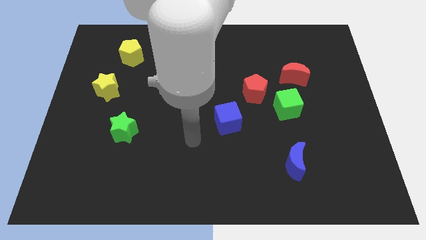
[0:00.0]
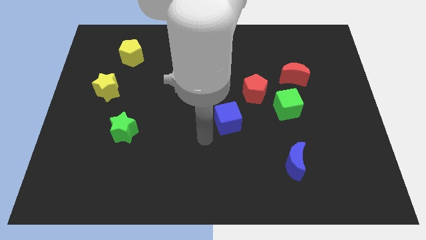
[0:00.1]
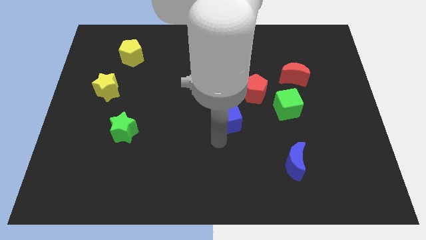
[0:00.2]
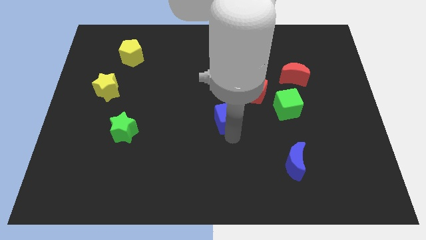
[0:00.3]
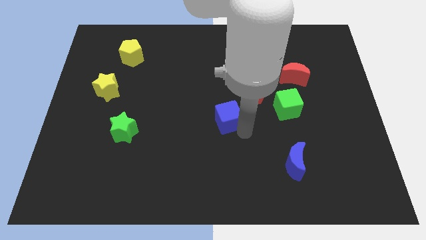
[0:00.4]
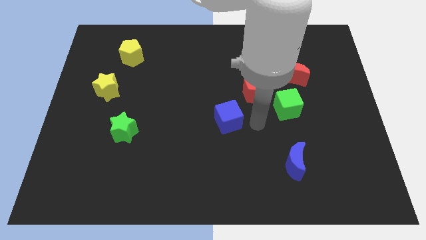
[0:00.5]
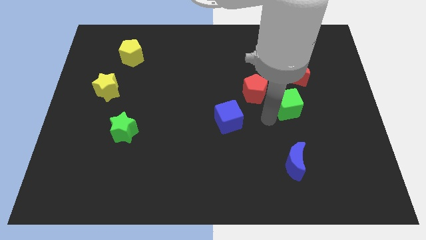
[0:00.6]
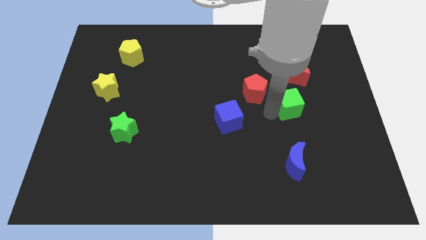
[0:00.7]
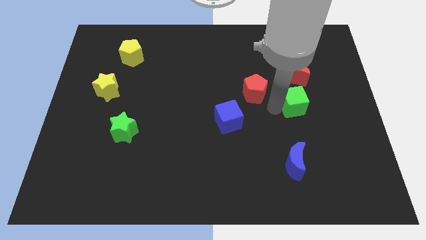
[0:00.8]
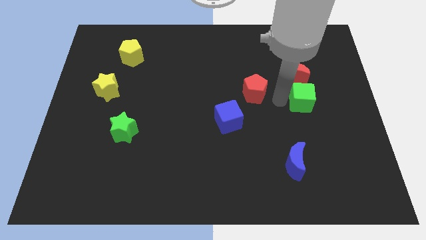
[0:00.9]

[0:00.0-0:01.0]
move the red pentagon away from the green cube

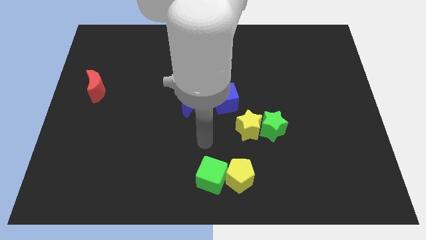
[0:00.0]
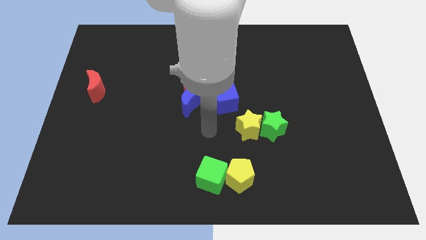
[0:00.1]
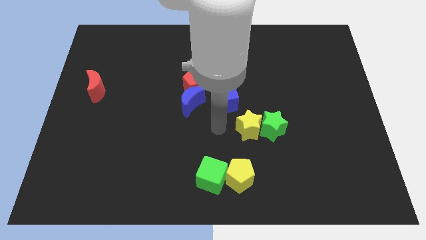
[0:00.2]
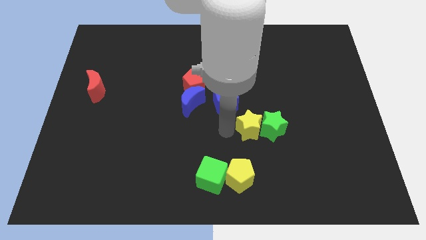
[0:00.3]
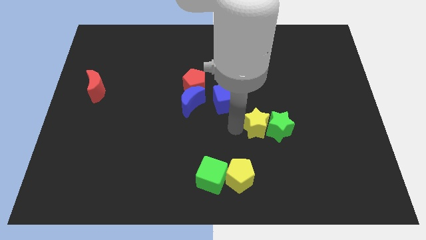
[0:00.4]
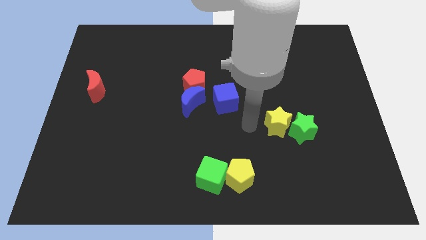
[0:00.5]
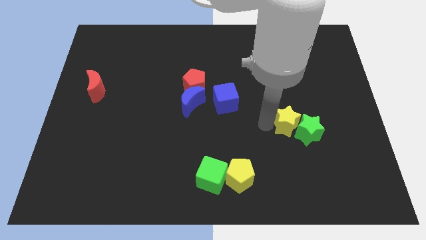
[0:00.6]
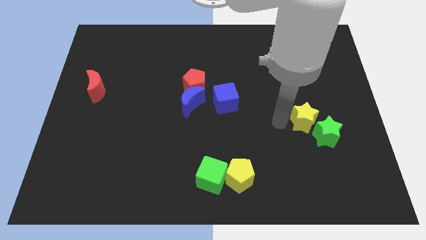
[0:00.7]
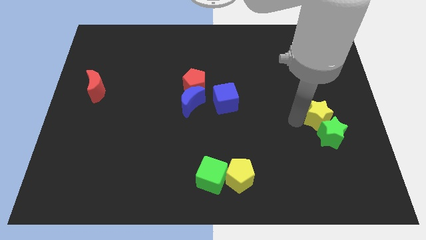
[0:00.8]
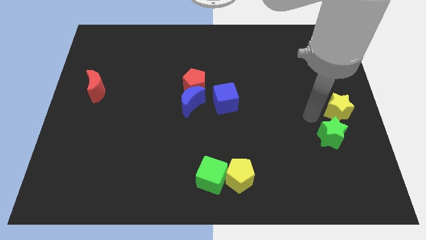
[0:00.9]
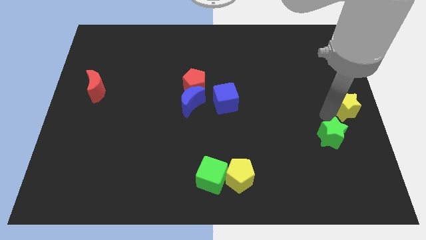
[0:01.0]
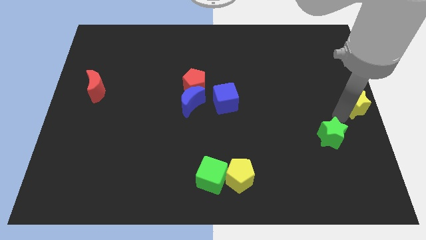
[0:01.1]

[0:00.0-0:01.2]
separate the green star from the yellow star

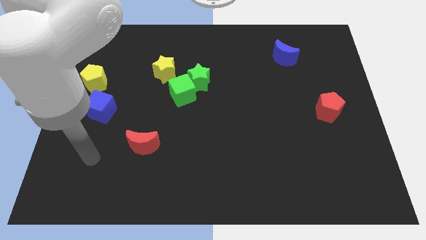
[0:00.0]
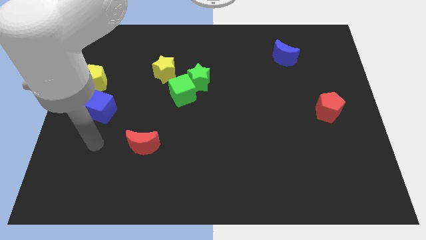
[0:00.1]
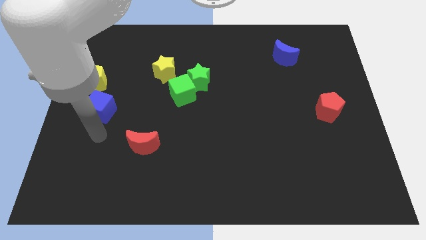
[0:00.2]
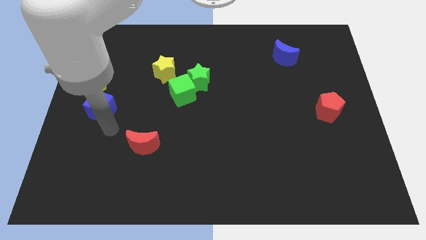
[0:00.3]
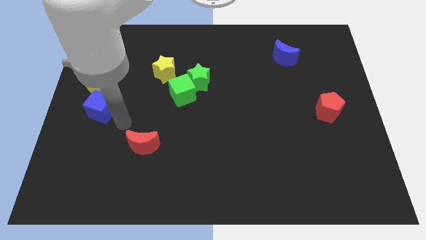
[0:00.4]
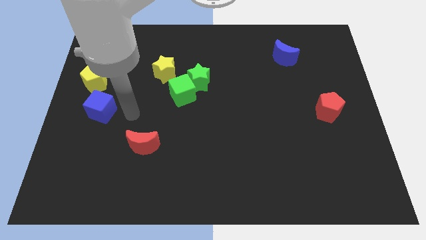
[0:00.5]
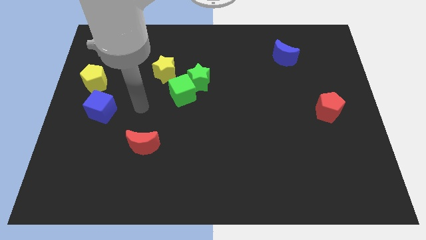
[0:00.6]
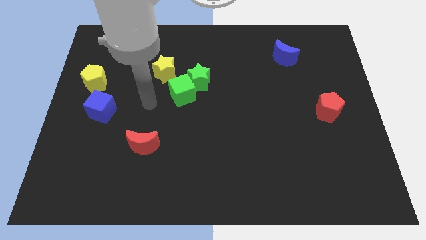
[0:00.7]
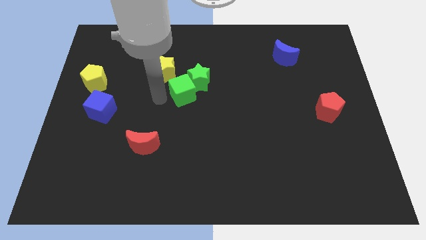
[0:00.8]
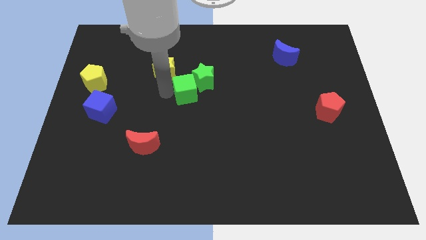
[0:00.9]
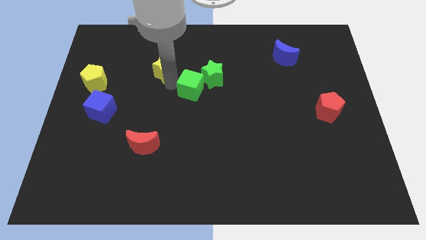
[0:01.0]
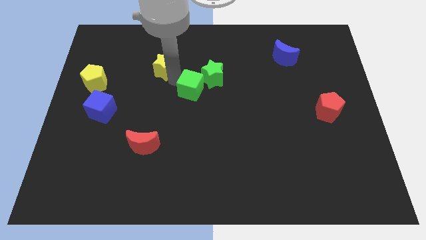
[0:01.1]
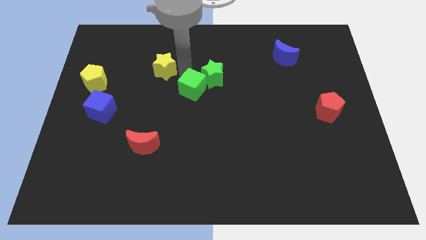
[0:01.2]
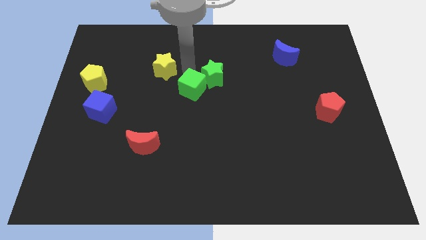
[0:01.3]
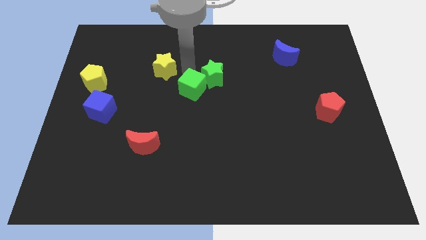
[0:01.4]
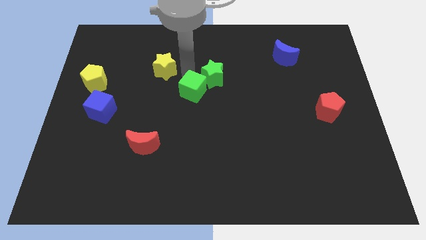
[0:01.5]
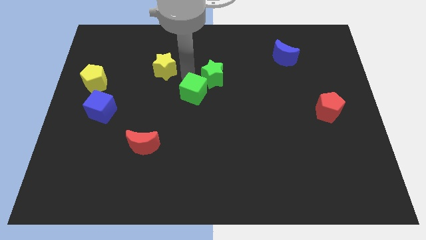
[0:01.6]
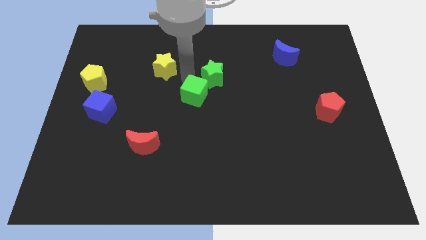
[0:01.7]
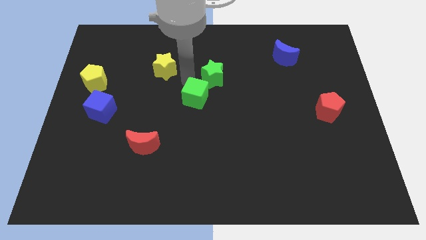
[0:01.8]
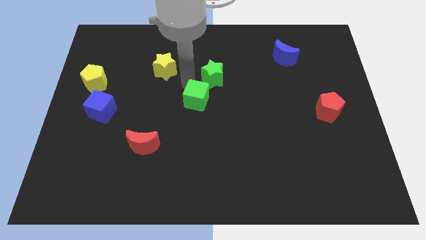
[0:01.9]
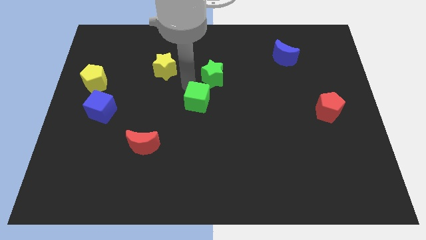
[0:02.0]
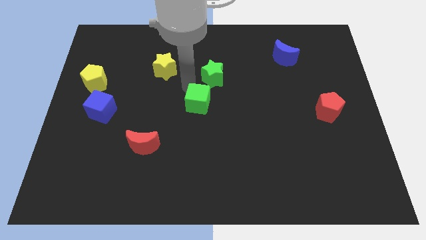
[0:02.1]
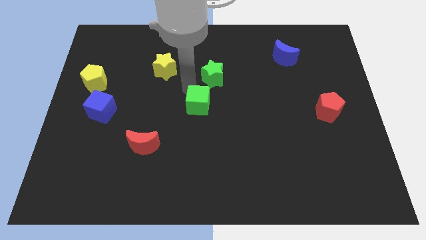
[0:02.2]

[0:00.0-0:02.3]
pull the green cube apart from the green star and yellow star

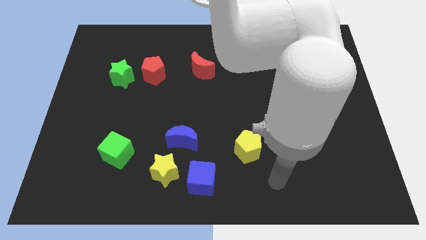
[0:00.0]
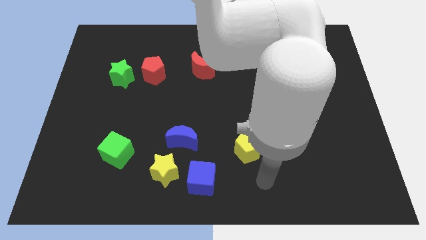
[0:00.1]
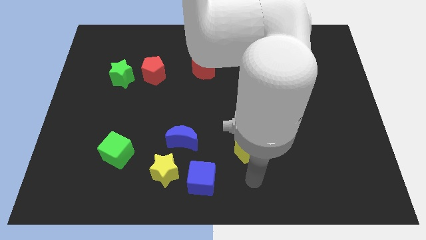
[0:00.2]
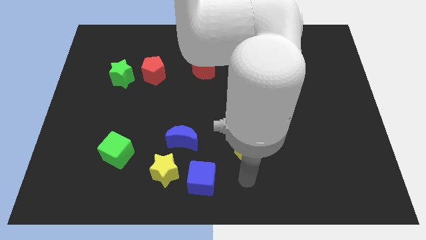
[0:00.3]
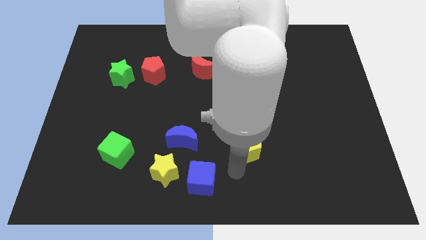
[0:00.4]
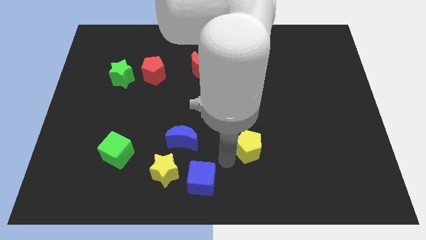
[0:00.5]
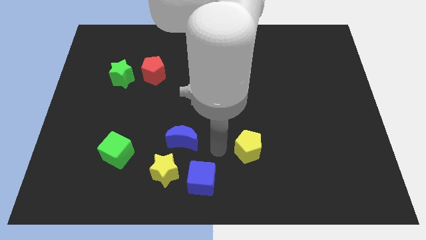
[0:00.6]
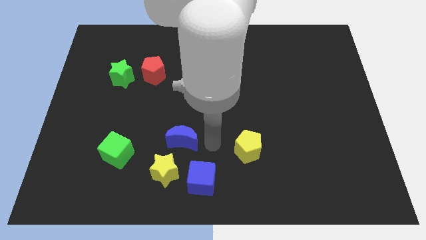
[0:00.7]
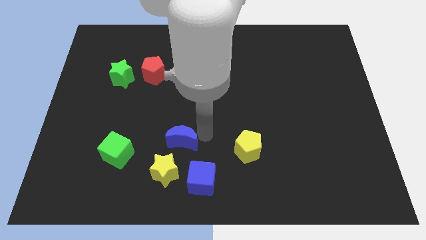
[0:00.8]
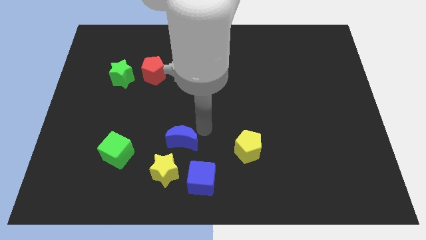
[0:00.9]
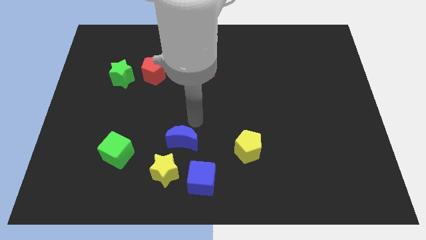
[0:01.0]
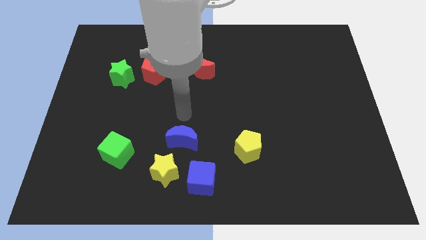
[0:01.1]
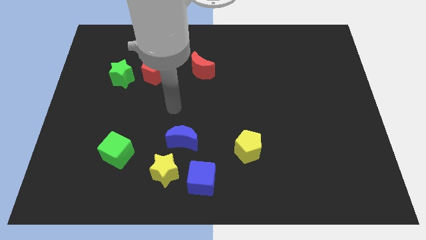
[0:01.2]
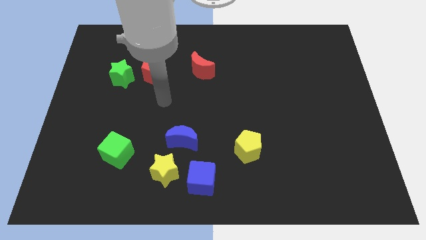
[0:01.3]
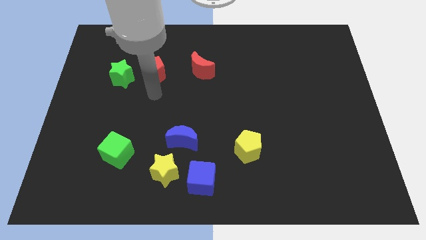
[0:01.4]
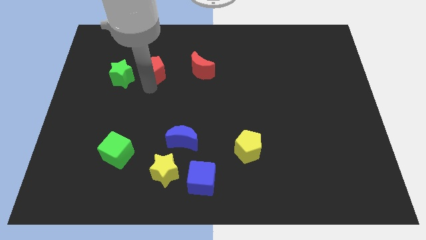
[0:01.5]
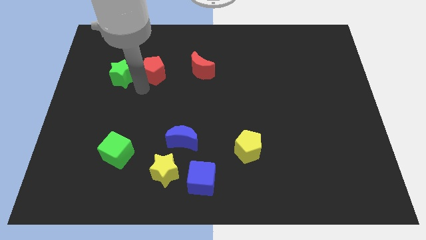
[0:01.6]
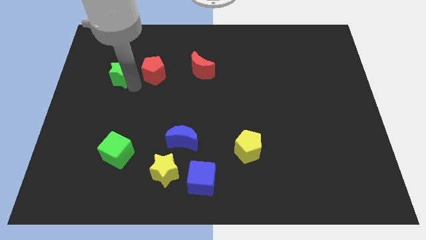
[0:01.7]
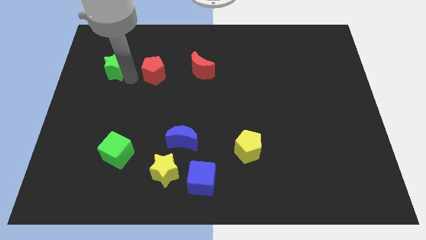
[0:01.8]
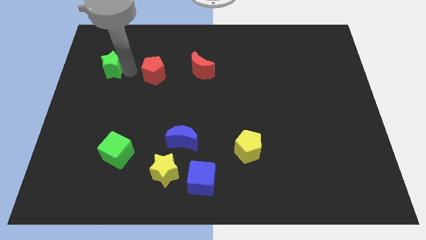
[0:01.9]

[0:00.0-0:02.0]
pull the red pentagon apart from the green star

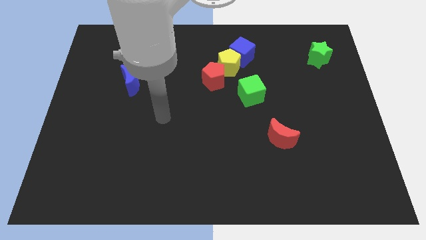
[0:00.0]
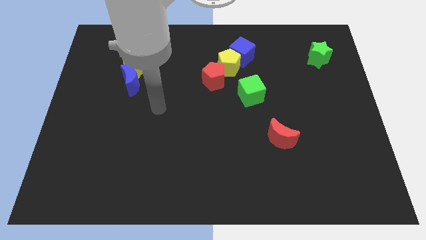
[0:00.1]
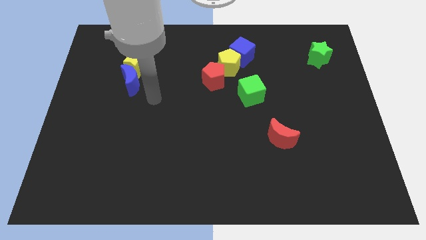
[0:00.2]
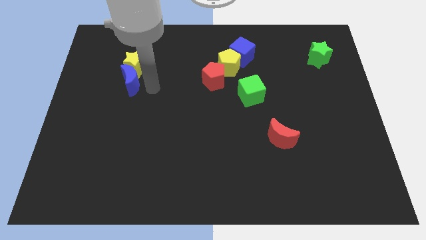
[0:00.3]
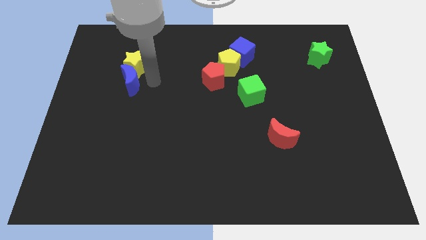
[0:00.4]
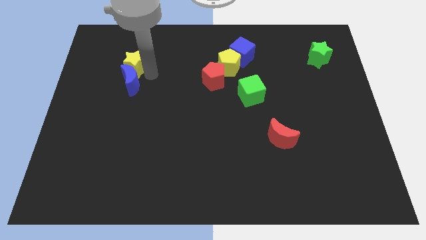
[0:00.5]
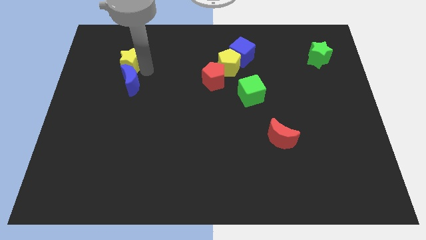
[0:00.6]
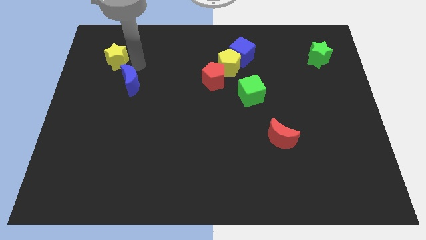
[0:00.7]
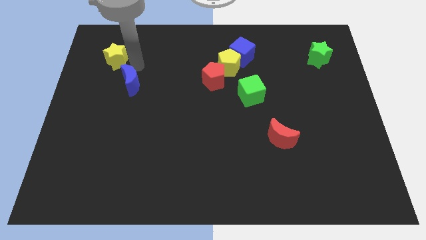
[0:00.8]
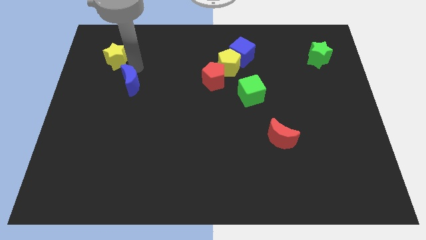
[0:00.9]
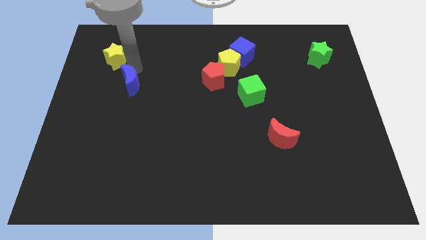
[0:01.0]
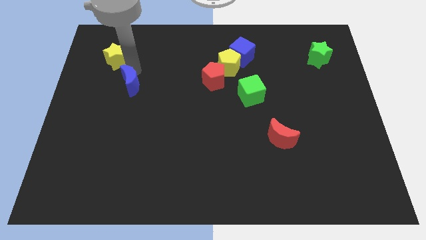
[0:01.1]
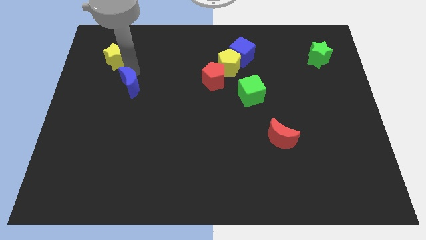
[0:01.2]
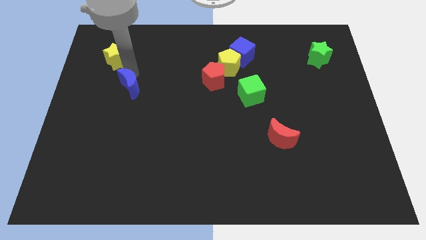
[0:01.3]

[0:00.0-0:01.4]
separate the blue moon from the yellow star

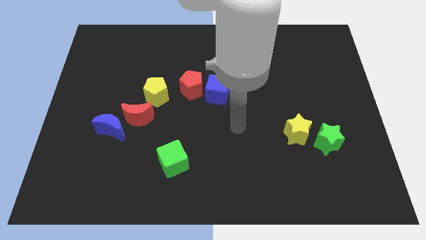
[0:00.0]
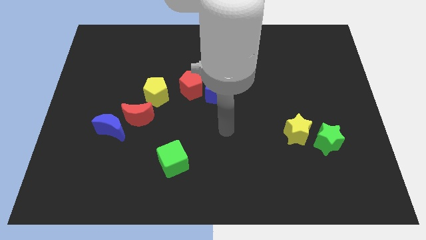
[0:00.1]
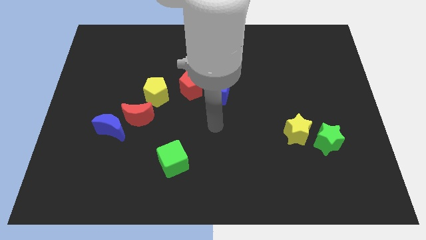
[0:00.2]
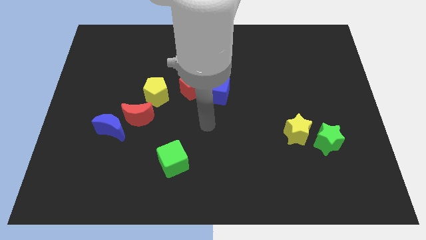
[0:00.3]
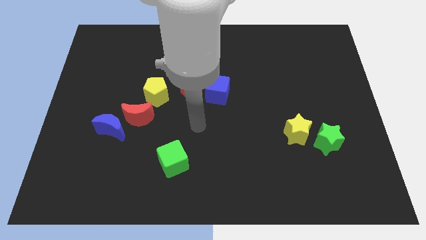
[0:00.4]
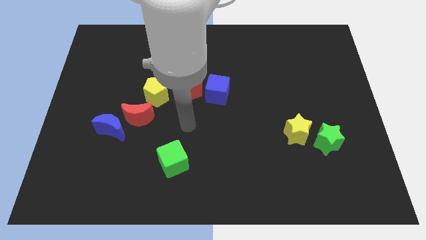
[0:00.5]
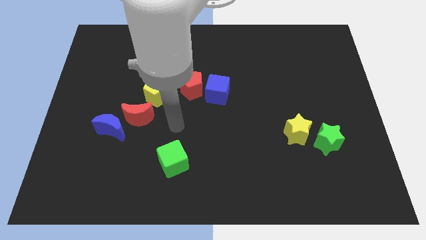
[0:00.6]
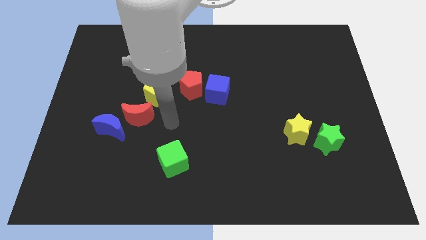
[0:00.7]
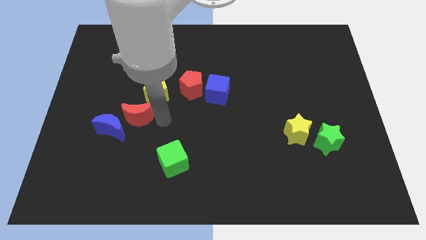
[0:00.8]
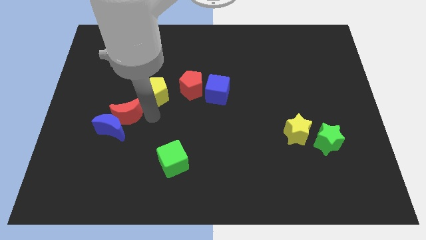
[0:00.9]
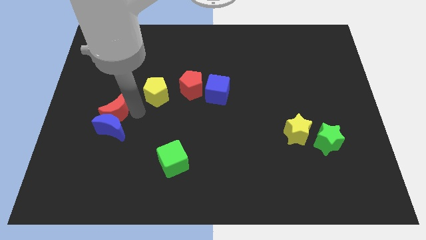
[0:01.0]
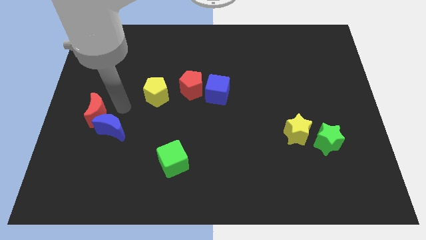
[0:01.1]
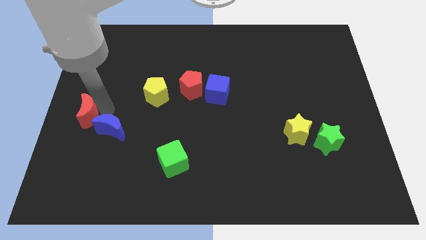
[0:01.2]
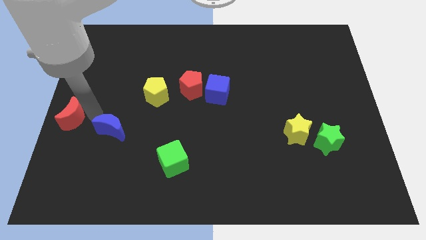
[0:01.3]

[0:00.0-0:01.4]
pull the blue moon apart from the red moon
